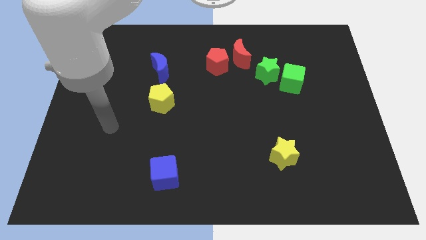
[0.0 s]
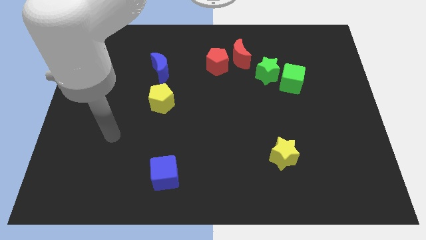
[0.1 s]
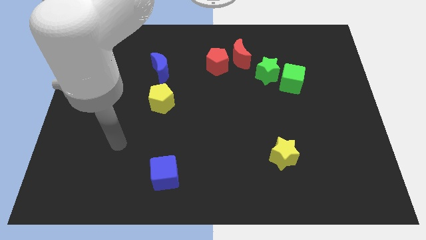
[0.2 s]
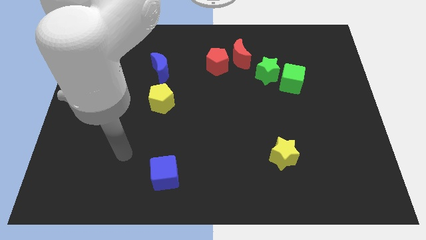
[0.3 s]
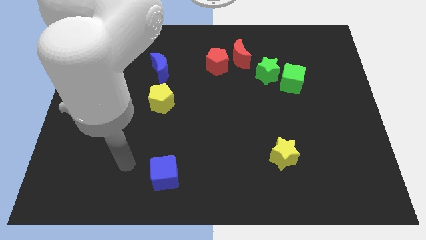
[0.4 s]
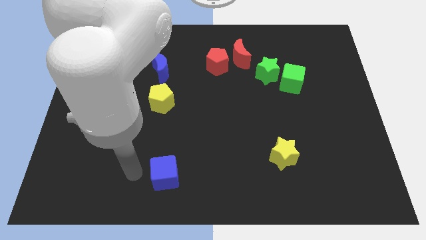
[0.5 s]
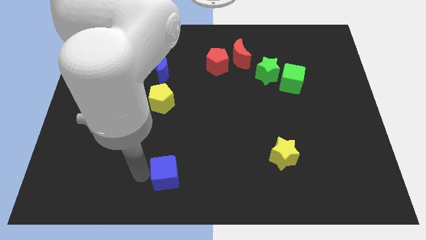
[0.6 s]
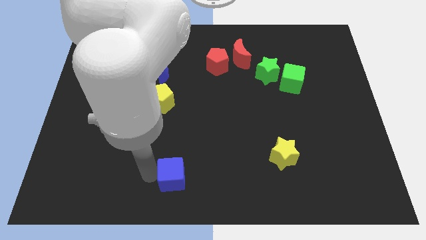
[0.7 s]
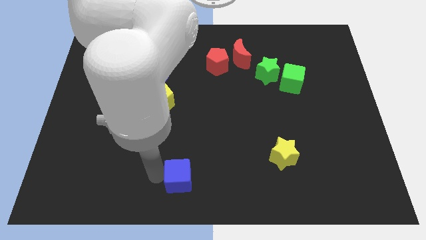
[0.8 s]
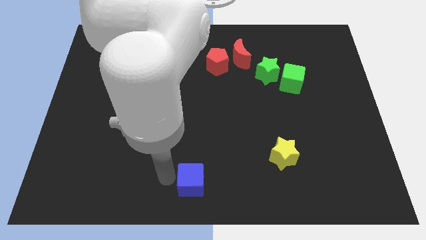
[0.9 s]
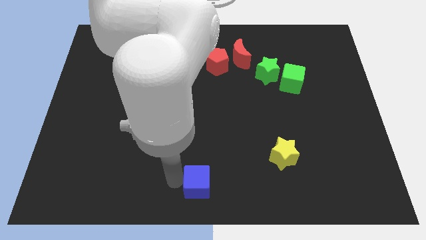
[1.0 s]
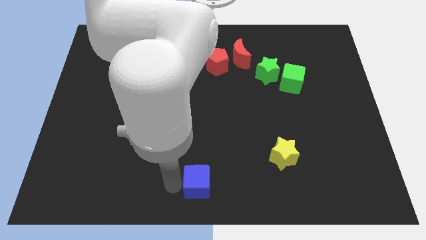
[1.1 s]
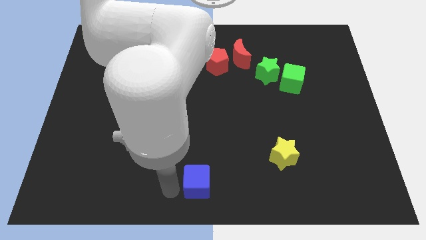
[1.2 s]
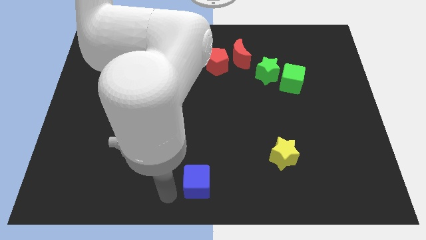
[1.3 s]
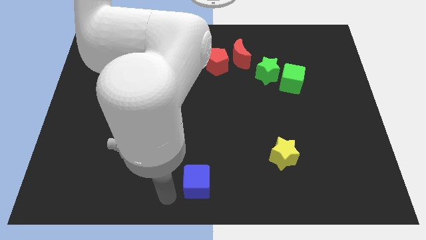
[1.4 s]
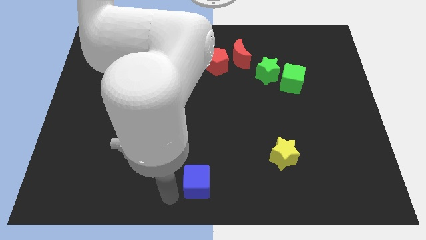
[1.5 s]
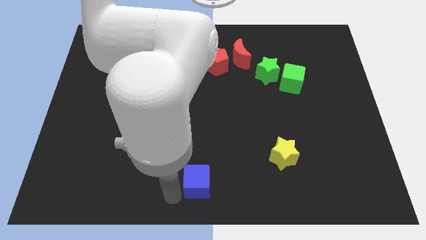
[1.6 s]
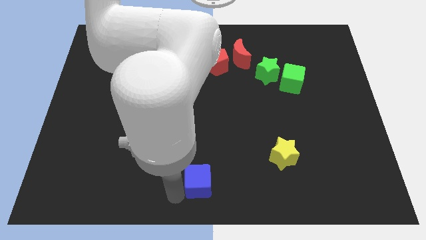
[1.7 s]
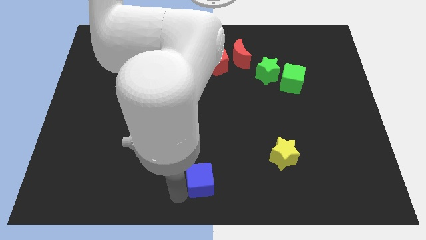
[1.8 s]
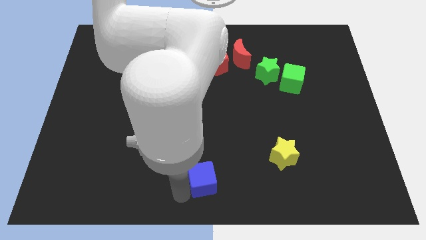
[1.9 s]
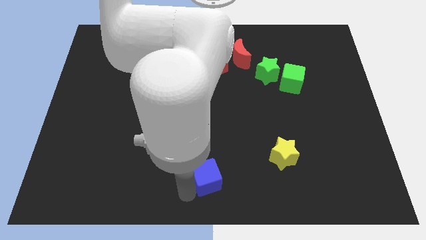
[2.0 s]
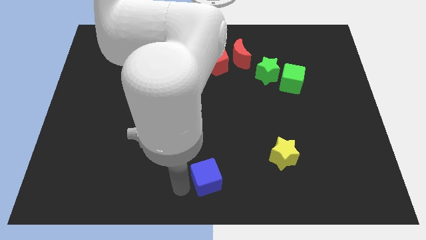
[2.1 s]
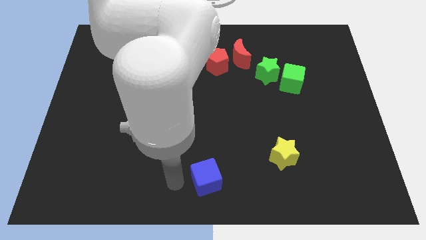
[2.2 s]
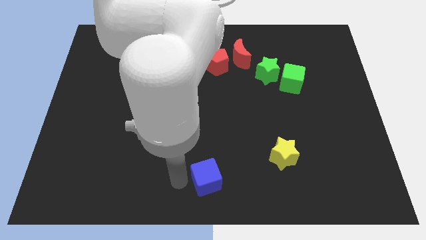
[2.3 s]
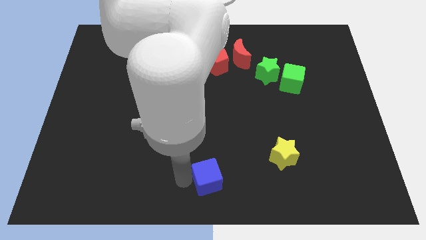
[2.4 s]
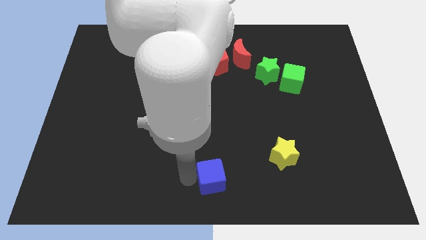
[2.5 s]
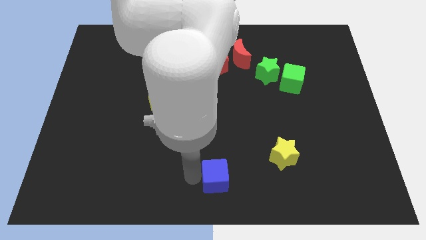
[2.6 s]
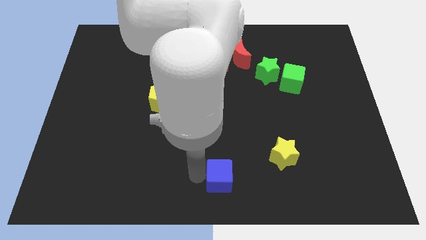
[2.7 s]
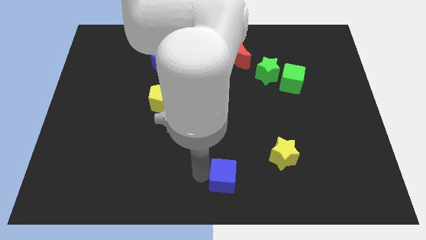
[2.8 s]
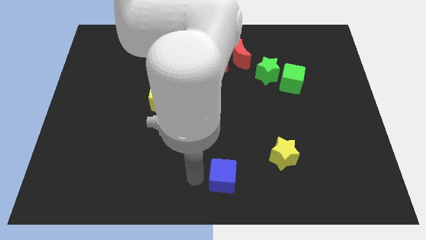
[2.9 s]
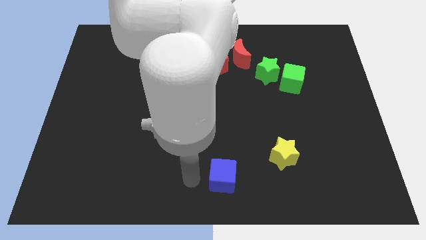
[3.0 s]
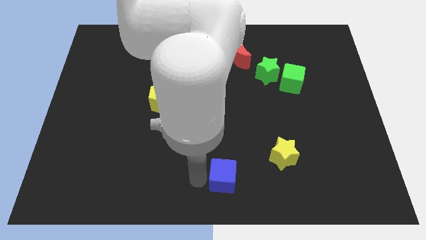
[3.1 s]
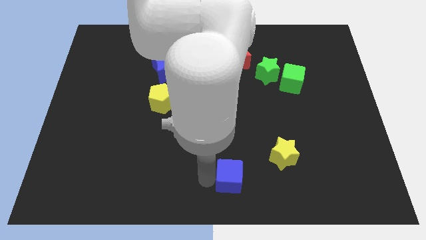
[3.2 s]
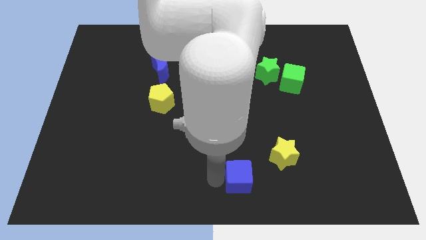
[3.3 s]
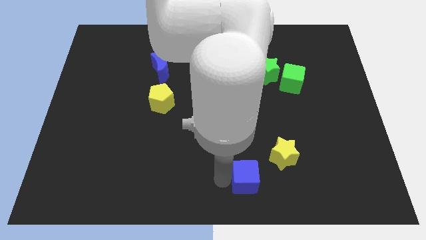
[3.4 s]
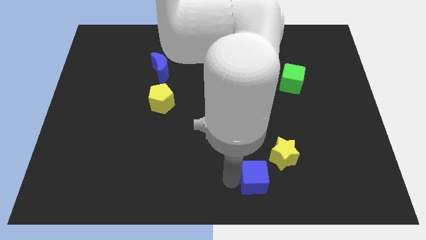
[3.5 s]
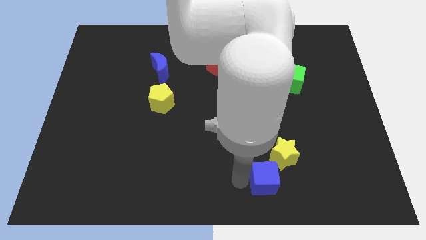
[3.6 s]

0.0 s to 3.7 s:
slide the blue cube to the right

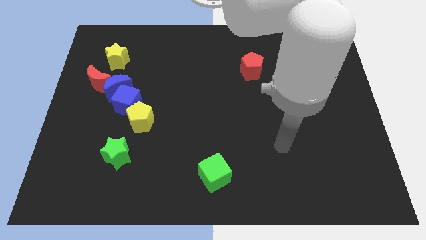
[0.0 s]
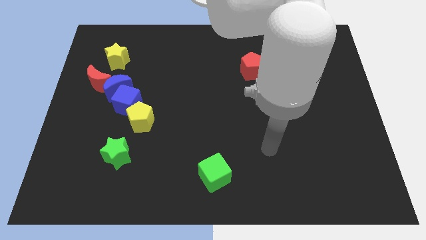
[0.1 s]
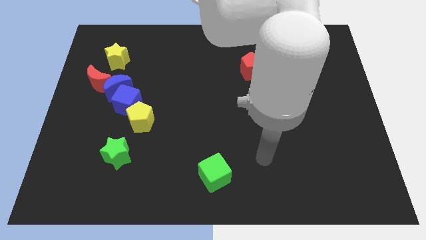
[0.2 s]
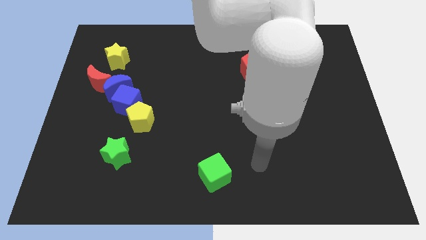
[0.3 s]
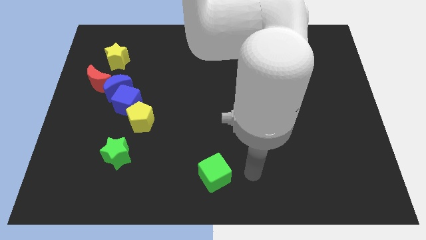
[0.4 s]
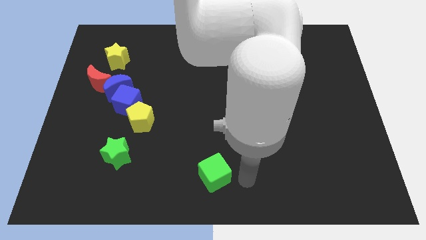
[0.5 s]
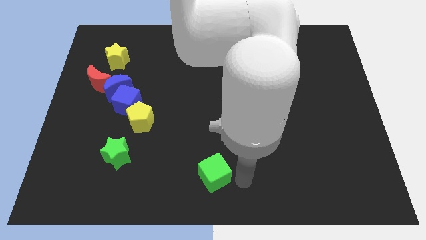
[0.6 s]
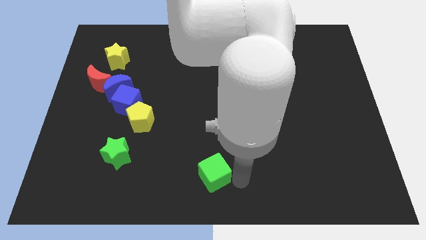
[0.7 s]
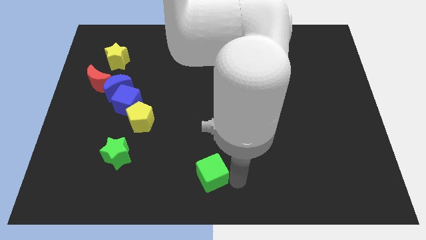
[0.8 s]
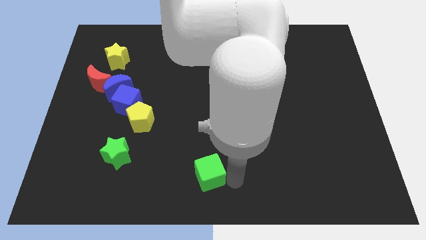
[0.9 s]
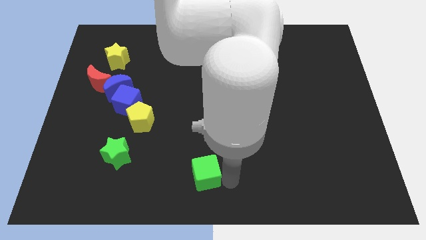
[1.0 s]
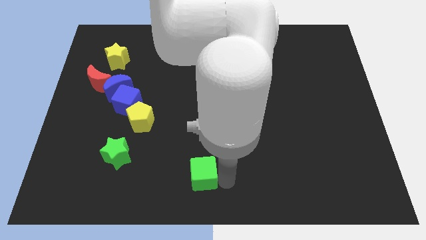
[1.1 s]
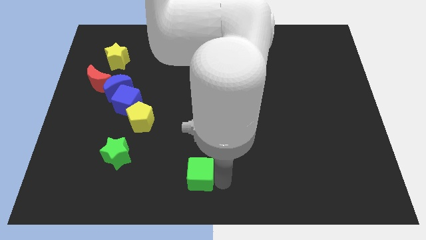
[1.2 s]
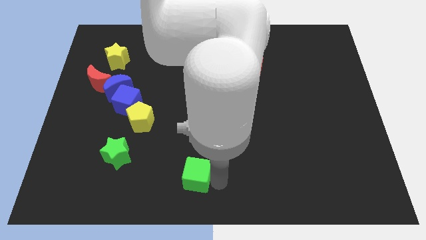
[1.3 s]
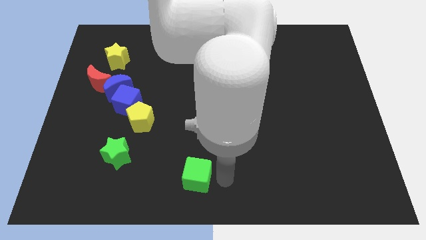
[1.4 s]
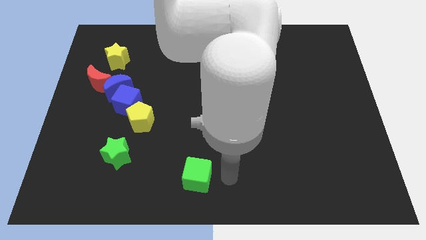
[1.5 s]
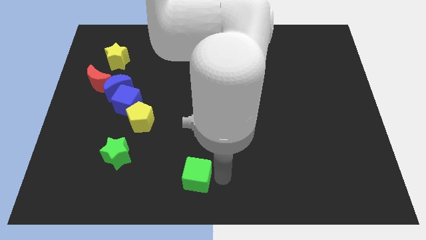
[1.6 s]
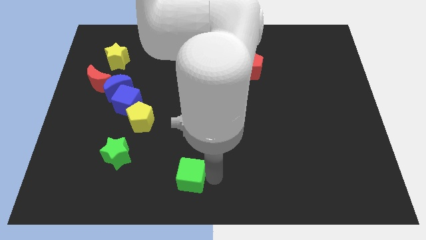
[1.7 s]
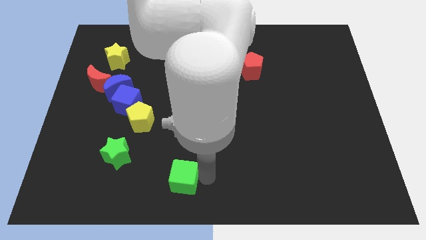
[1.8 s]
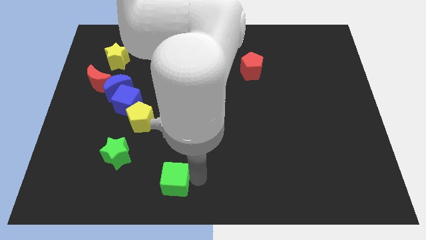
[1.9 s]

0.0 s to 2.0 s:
move the green cube a little bit left

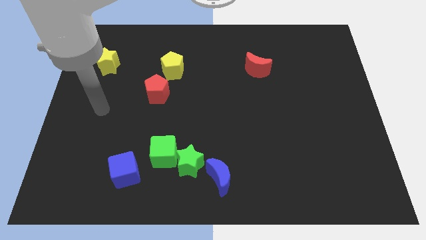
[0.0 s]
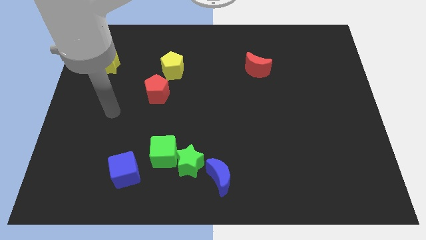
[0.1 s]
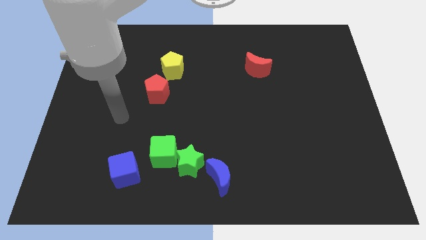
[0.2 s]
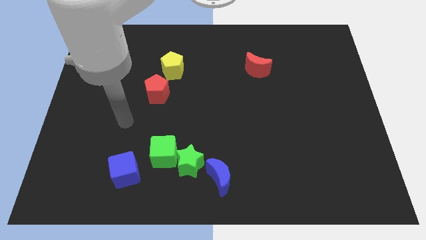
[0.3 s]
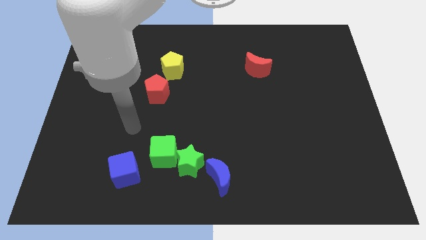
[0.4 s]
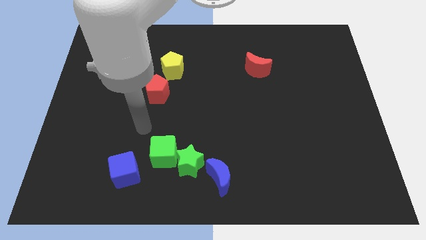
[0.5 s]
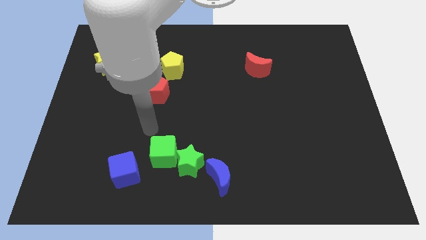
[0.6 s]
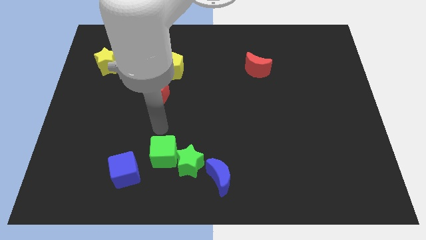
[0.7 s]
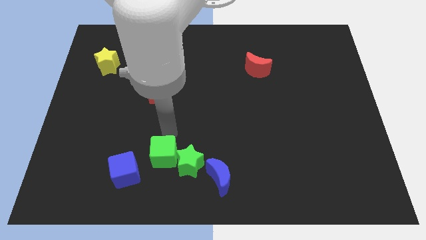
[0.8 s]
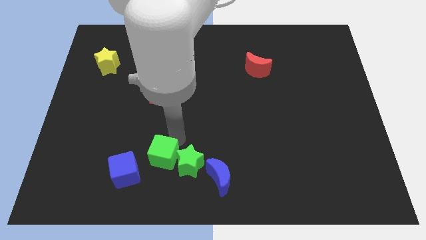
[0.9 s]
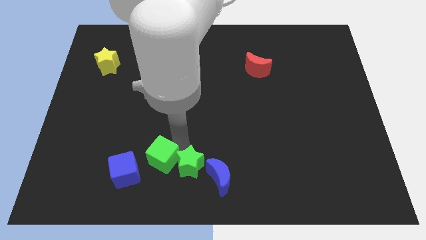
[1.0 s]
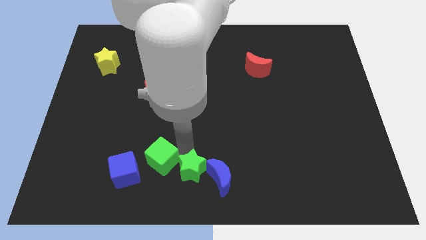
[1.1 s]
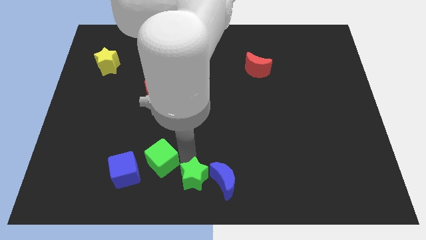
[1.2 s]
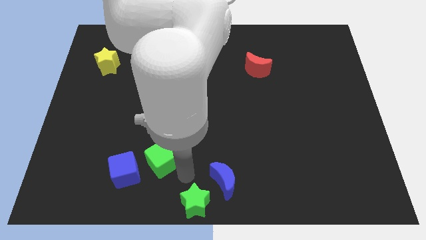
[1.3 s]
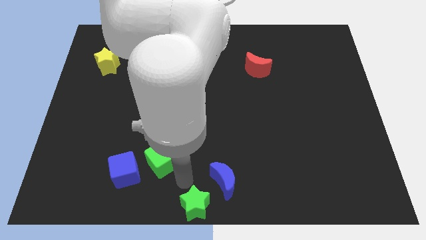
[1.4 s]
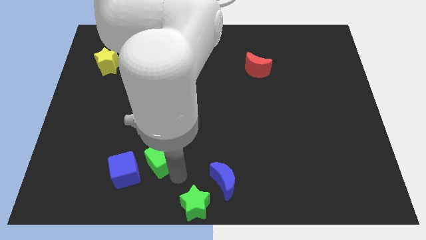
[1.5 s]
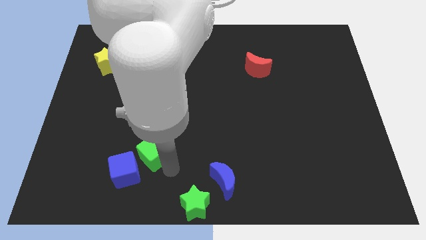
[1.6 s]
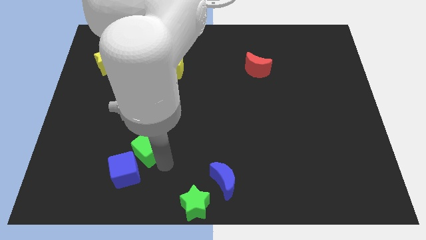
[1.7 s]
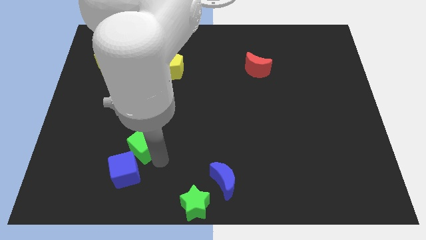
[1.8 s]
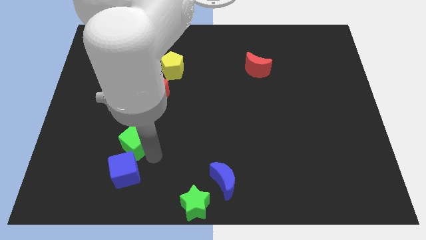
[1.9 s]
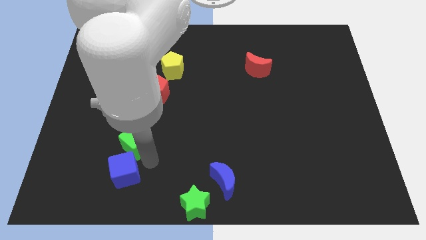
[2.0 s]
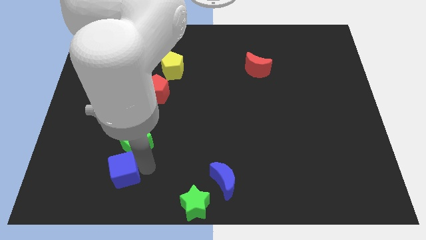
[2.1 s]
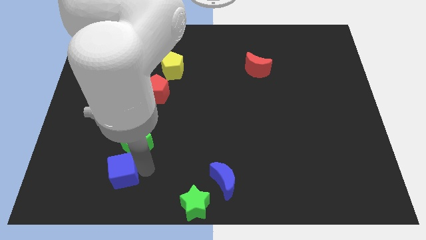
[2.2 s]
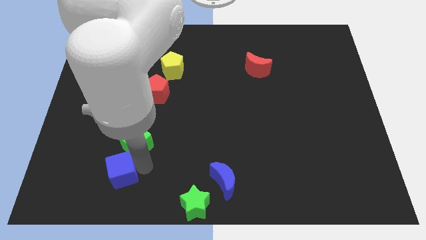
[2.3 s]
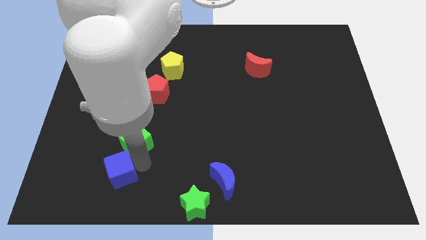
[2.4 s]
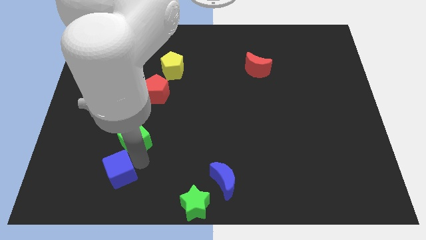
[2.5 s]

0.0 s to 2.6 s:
move the green cube upwards and to the left a little bit

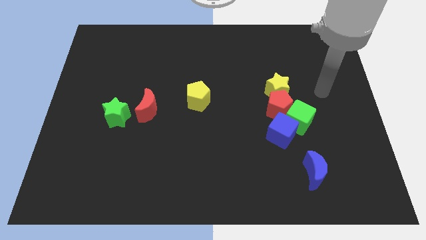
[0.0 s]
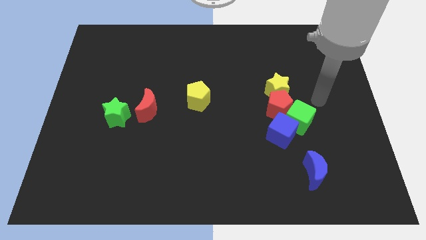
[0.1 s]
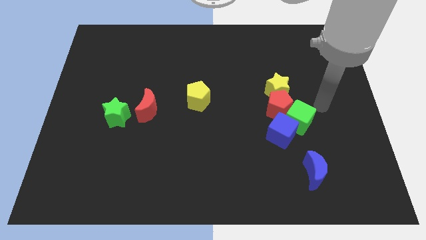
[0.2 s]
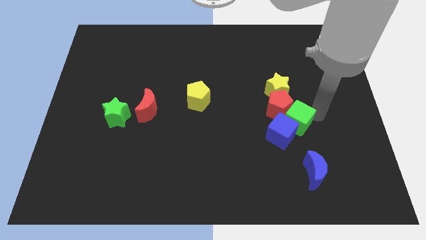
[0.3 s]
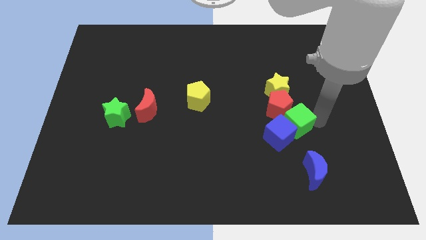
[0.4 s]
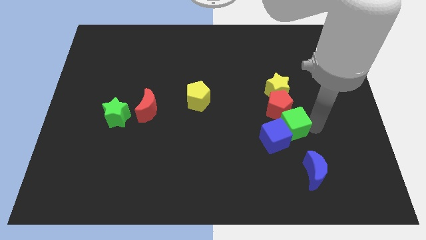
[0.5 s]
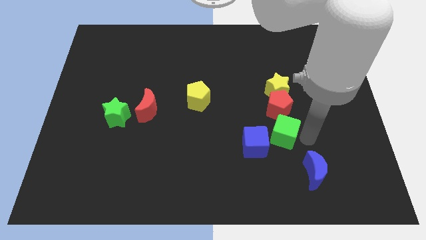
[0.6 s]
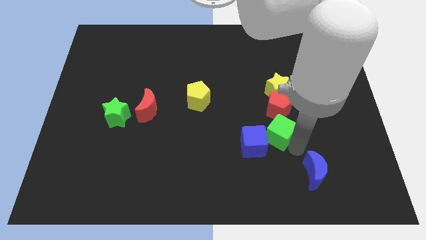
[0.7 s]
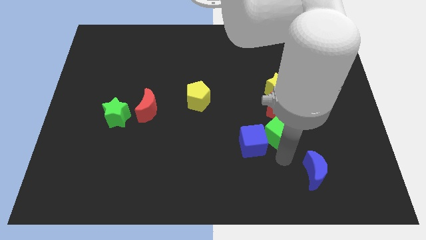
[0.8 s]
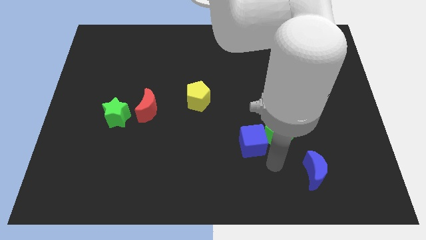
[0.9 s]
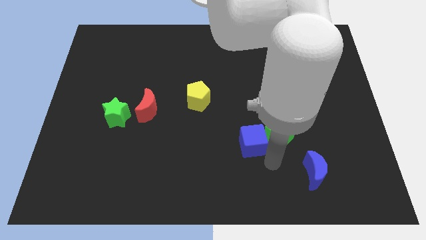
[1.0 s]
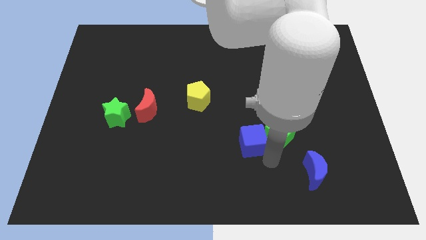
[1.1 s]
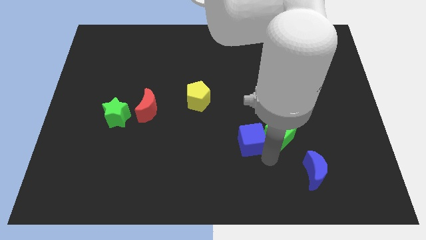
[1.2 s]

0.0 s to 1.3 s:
slightly slide the blue cube to the left
